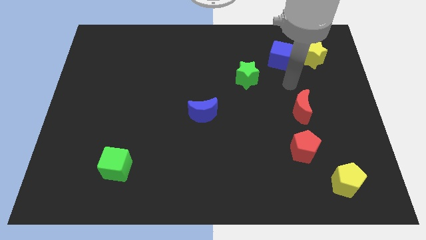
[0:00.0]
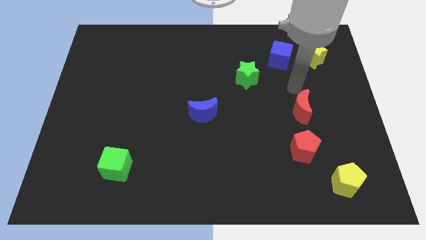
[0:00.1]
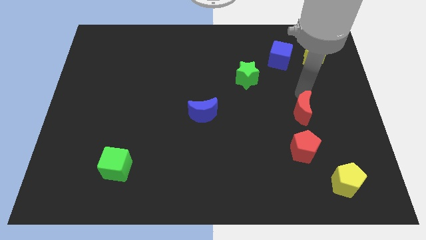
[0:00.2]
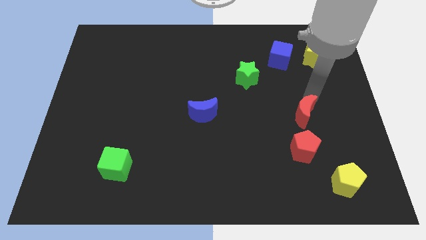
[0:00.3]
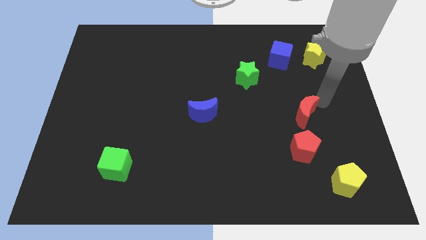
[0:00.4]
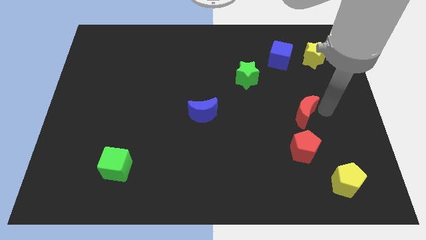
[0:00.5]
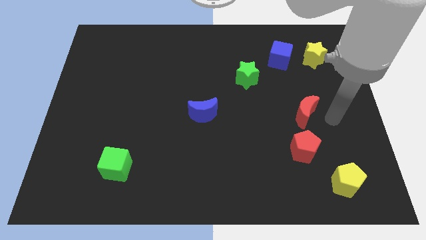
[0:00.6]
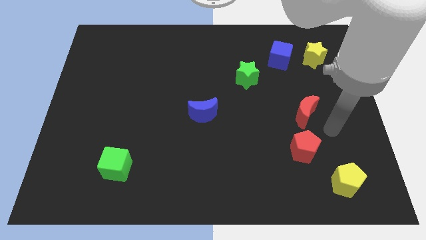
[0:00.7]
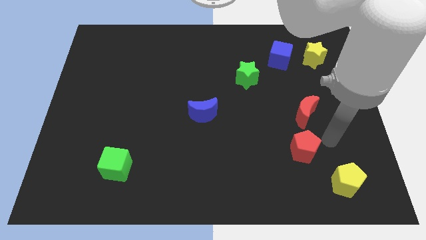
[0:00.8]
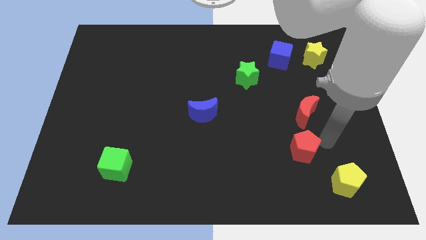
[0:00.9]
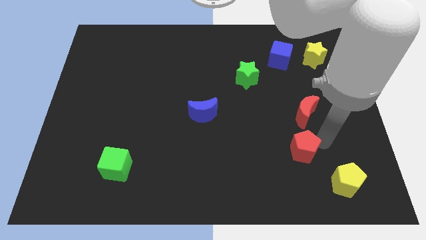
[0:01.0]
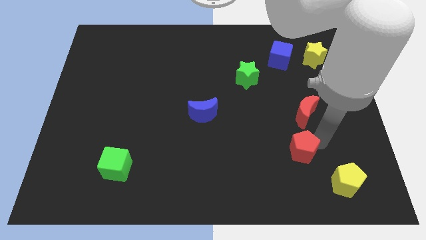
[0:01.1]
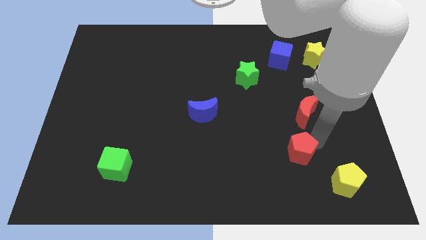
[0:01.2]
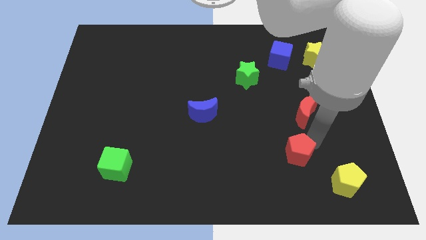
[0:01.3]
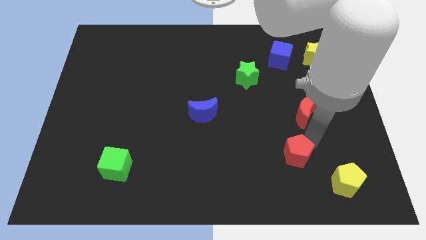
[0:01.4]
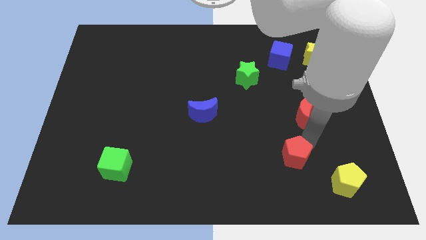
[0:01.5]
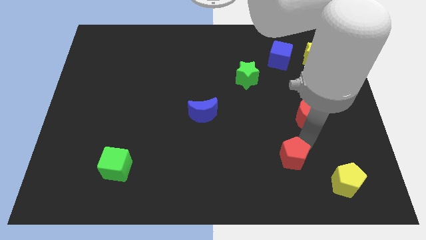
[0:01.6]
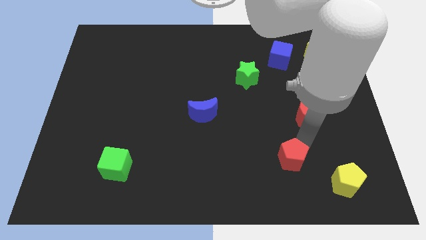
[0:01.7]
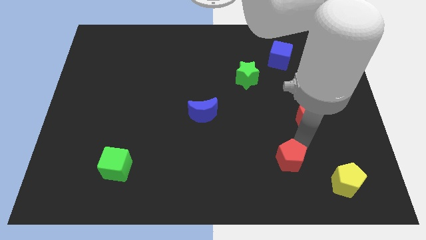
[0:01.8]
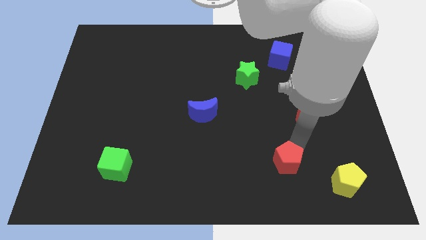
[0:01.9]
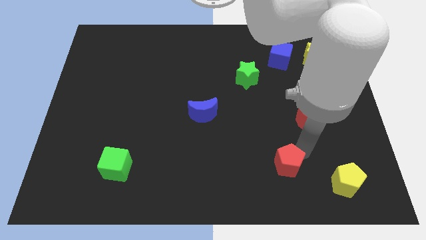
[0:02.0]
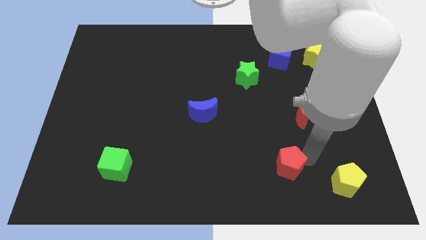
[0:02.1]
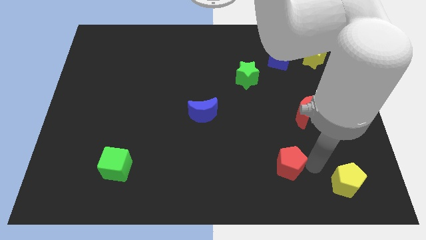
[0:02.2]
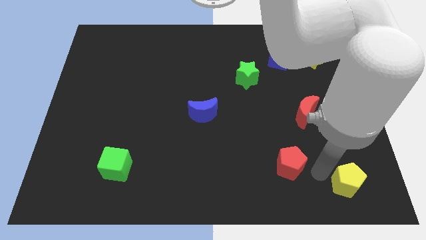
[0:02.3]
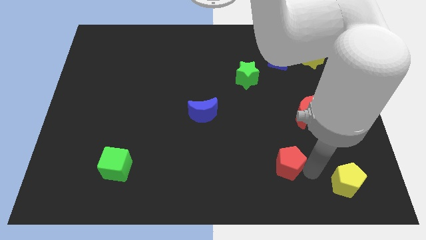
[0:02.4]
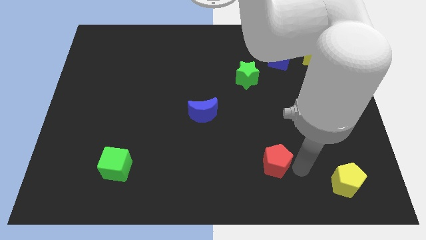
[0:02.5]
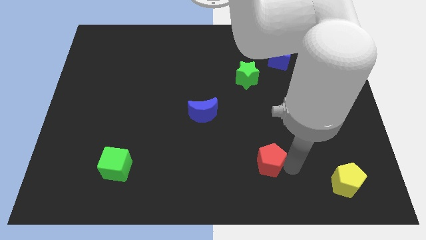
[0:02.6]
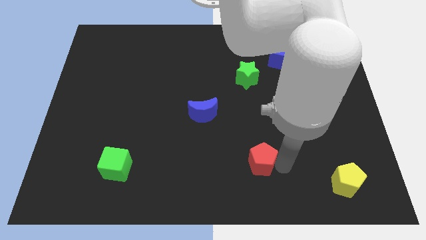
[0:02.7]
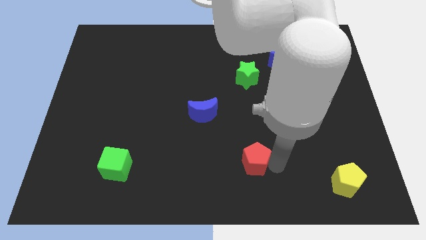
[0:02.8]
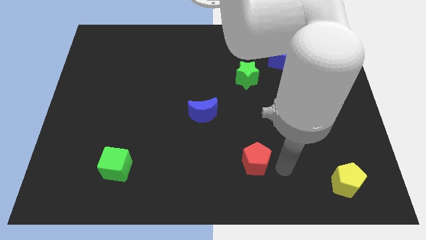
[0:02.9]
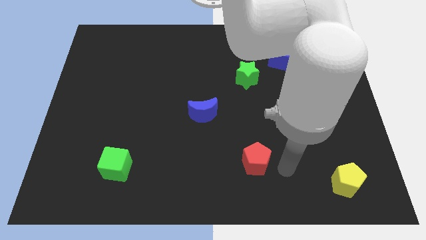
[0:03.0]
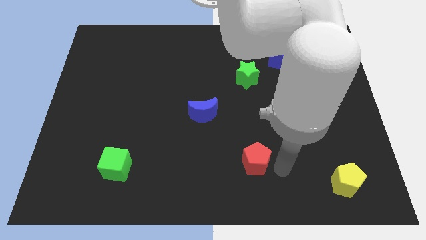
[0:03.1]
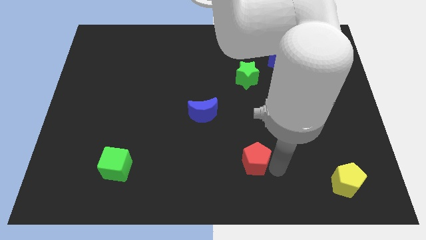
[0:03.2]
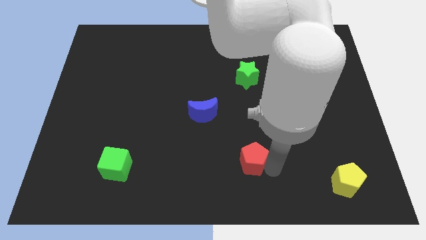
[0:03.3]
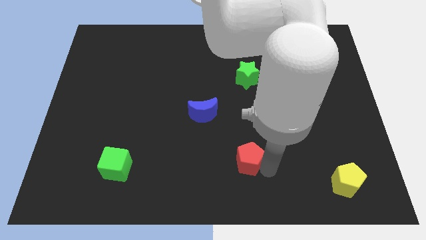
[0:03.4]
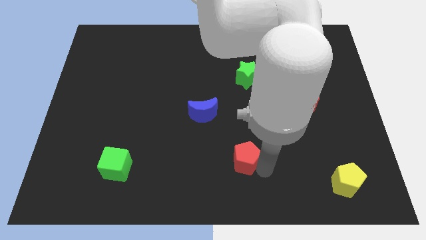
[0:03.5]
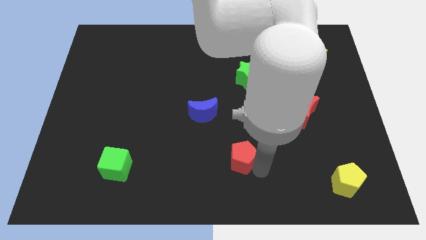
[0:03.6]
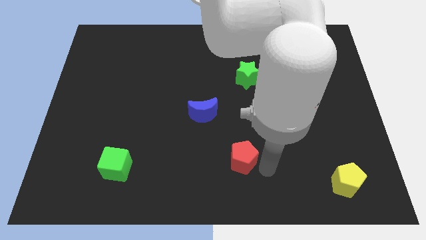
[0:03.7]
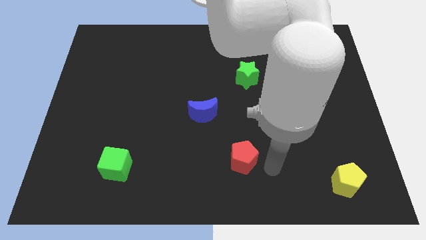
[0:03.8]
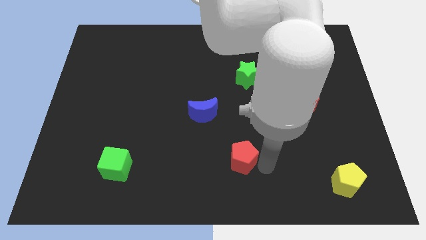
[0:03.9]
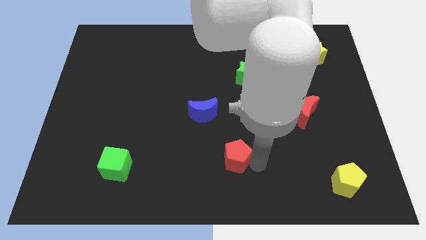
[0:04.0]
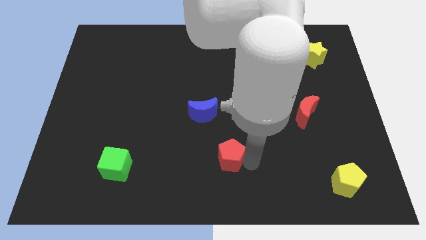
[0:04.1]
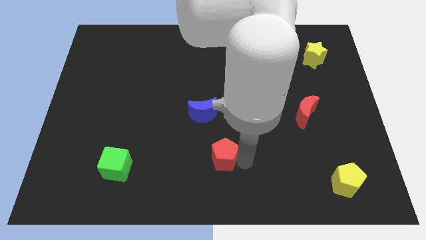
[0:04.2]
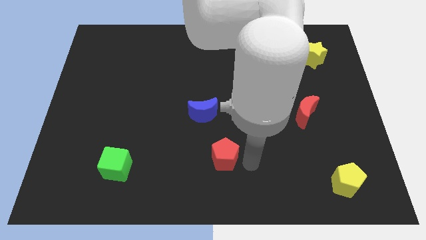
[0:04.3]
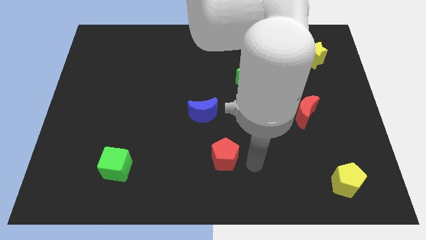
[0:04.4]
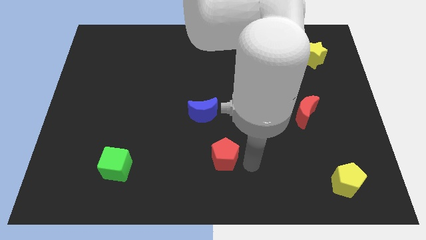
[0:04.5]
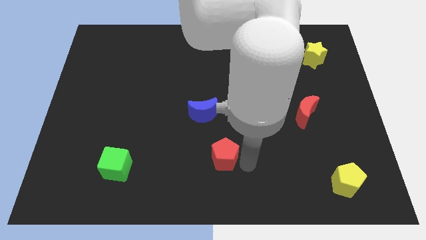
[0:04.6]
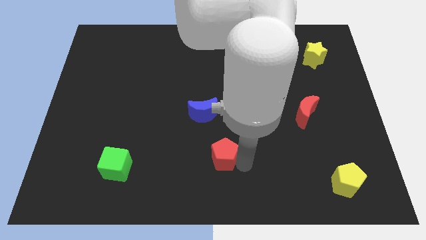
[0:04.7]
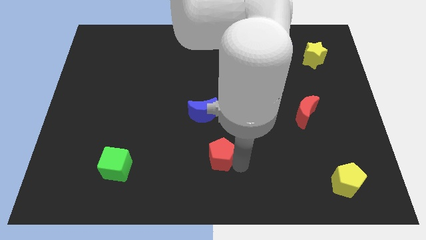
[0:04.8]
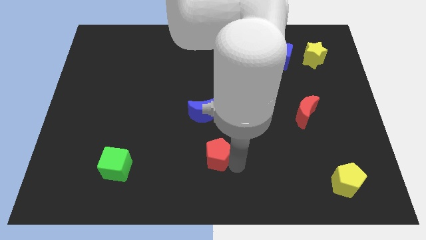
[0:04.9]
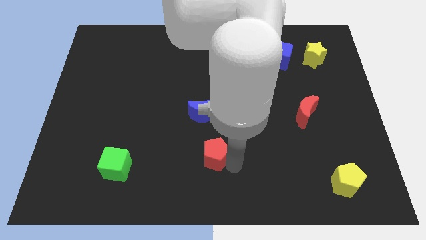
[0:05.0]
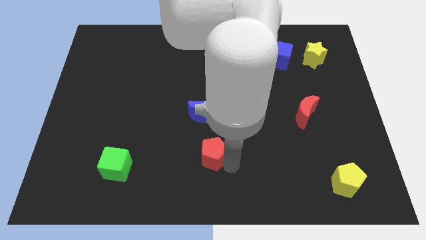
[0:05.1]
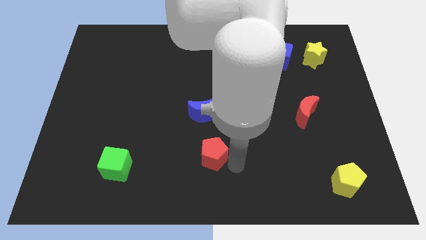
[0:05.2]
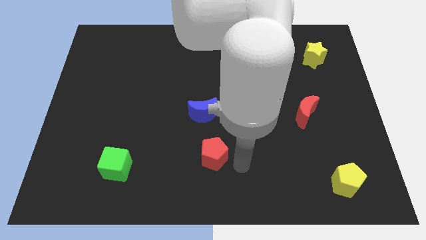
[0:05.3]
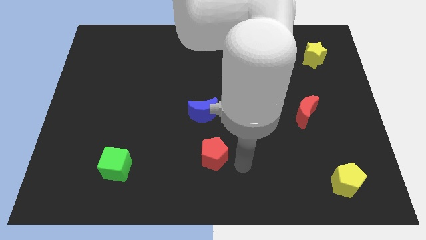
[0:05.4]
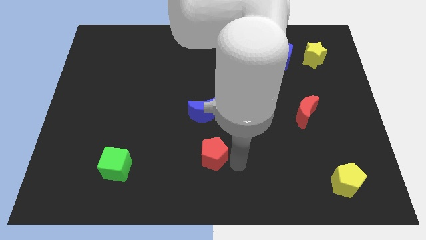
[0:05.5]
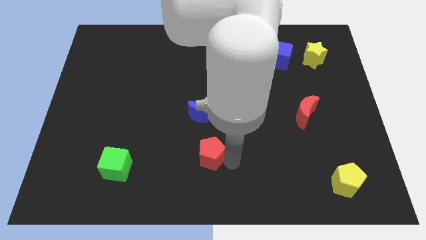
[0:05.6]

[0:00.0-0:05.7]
push the red pentagon to the left

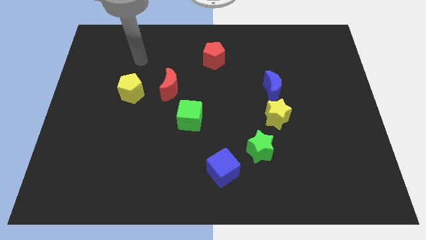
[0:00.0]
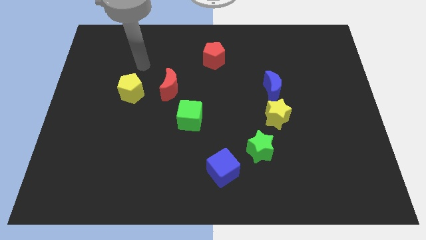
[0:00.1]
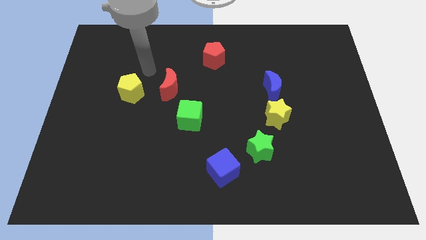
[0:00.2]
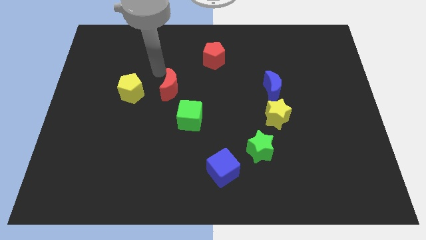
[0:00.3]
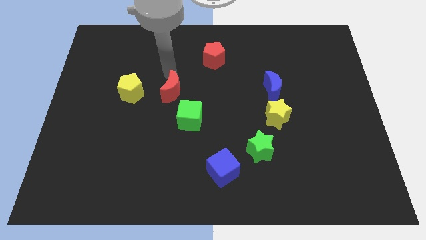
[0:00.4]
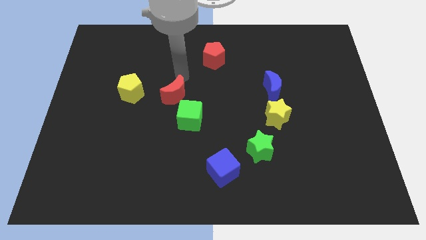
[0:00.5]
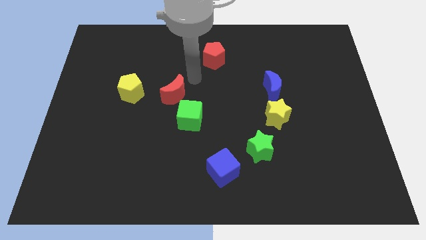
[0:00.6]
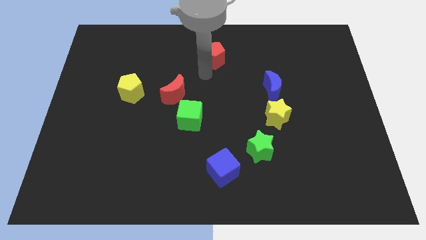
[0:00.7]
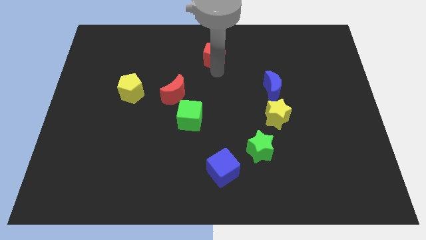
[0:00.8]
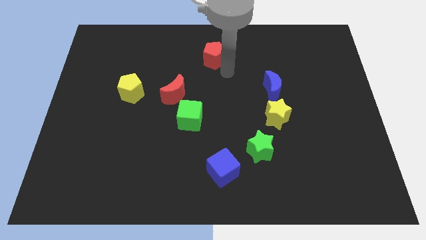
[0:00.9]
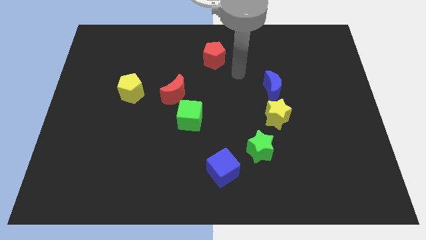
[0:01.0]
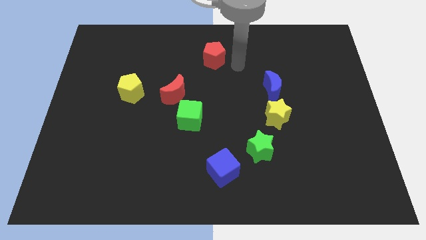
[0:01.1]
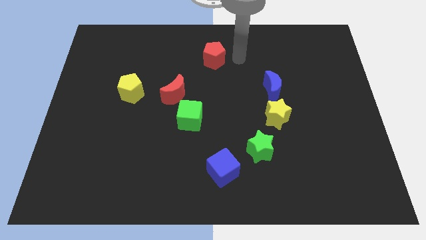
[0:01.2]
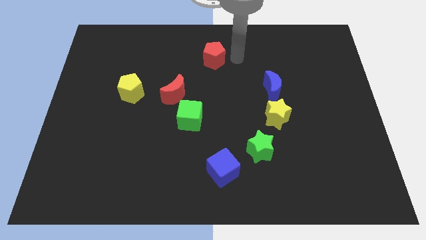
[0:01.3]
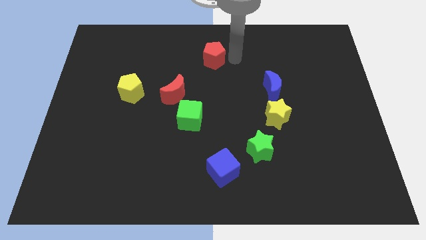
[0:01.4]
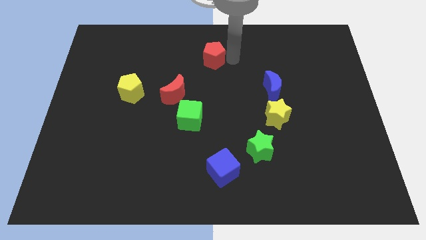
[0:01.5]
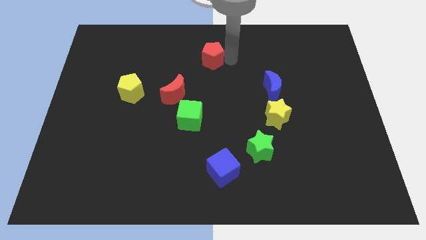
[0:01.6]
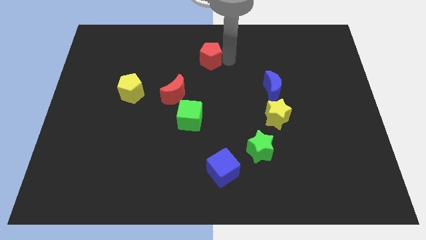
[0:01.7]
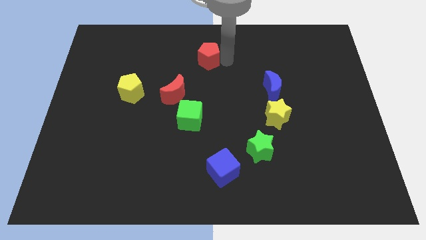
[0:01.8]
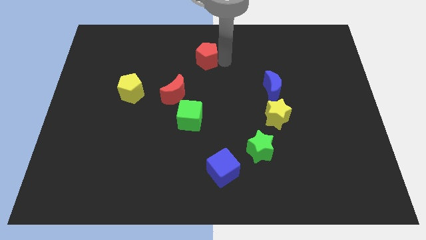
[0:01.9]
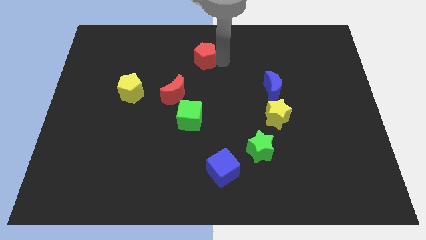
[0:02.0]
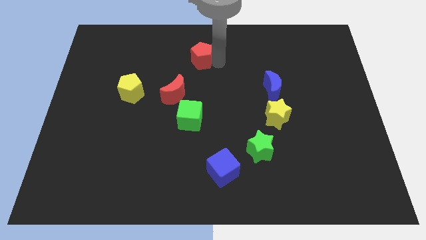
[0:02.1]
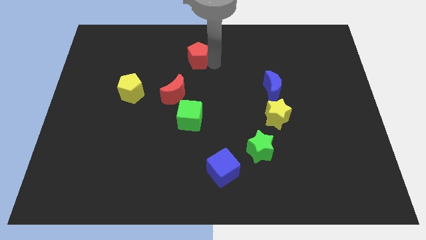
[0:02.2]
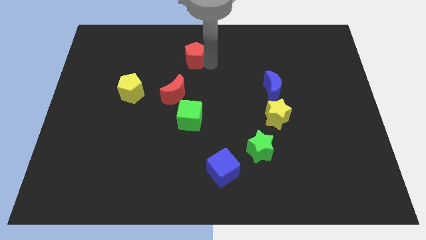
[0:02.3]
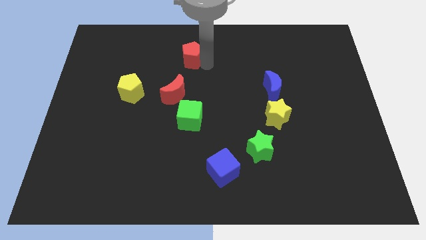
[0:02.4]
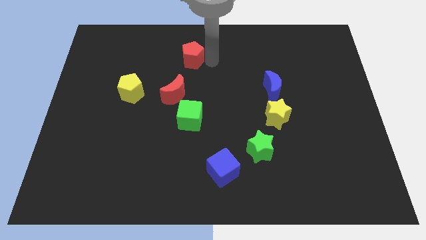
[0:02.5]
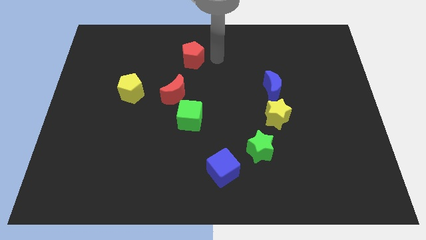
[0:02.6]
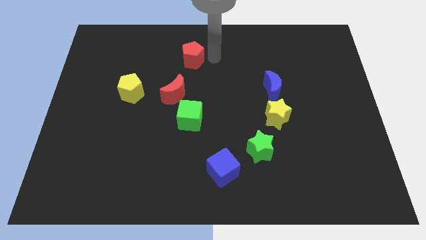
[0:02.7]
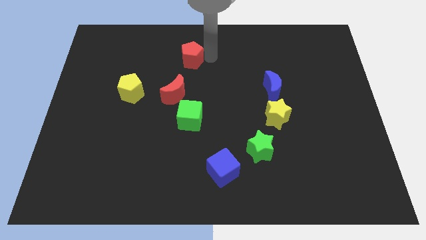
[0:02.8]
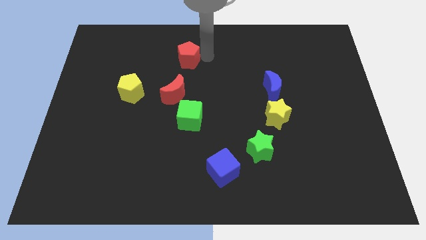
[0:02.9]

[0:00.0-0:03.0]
push the red pentagon a little left
